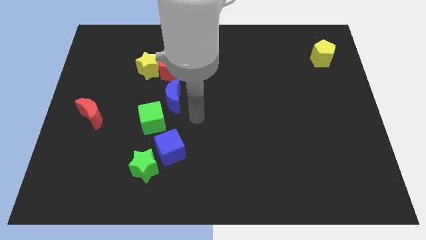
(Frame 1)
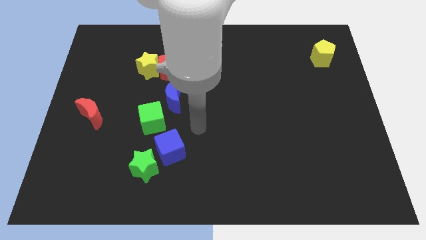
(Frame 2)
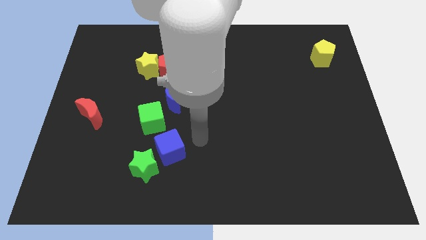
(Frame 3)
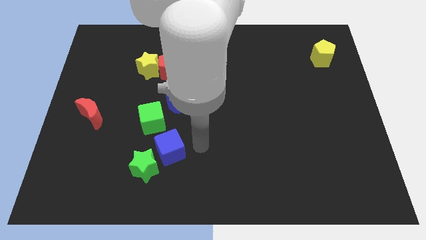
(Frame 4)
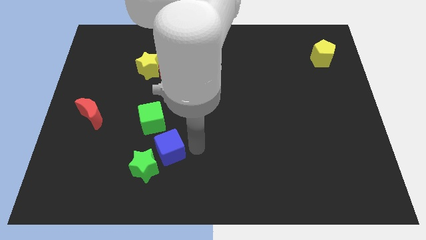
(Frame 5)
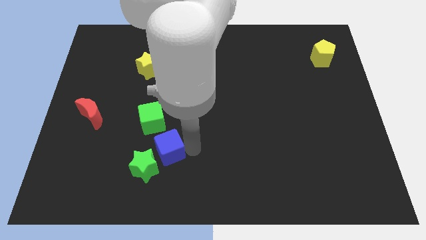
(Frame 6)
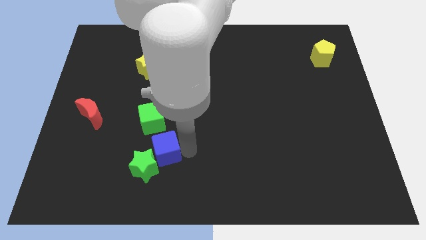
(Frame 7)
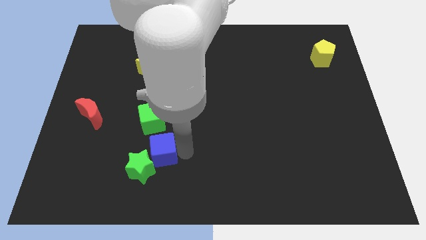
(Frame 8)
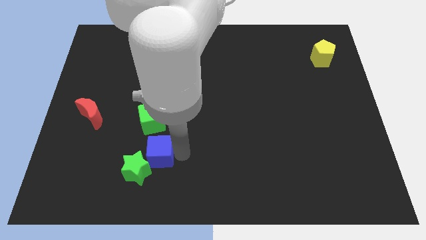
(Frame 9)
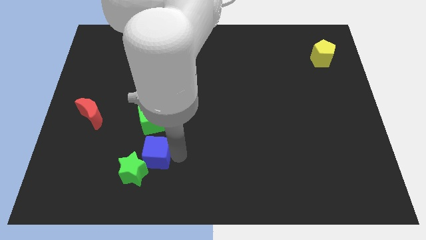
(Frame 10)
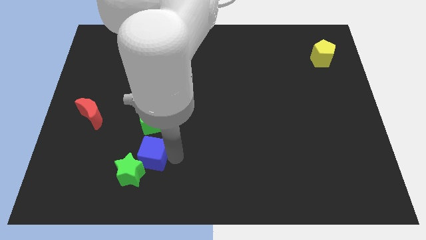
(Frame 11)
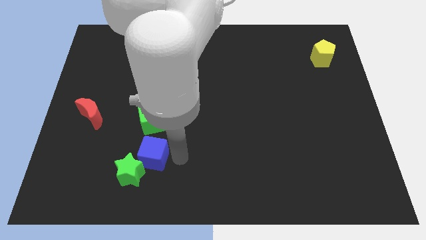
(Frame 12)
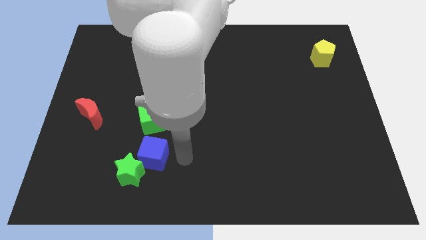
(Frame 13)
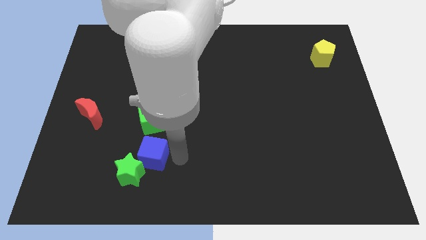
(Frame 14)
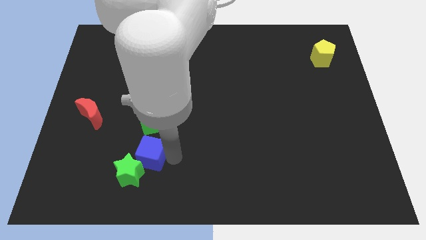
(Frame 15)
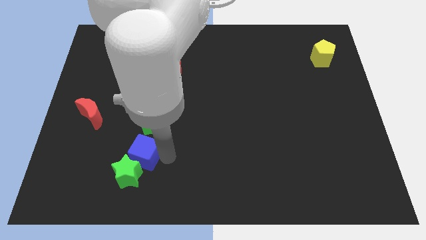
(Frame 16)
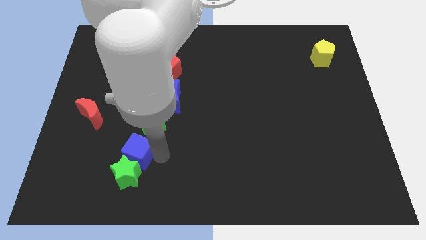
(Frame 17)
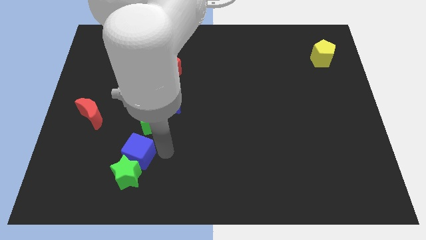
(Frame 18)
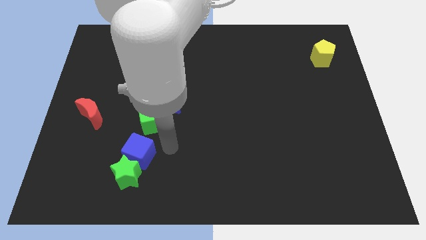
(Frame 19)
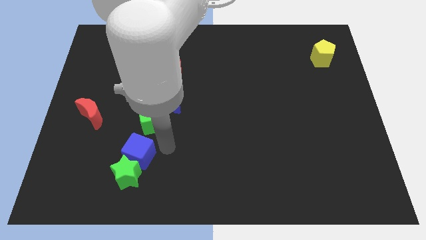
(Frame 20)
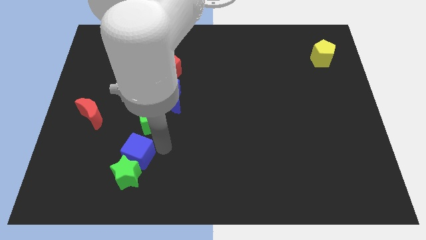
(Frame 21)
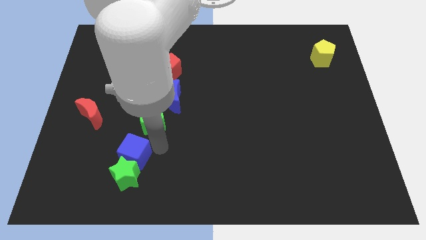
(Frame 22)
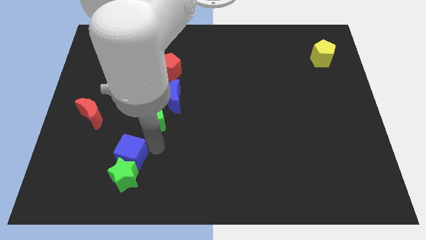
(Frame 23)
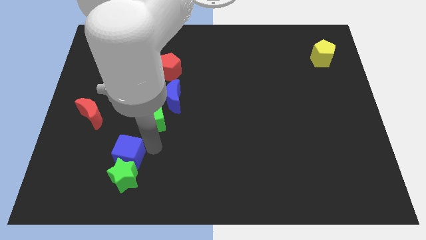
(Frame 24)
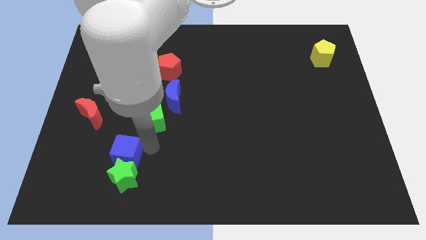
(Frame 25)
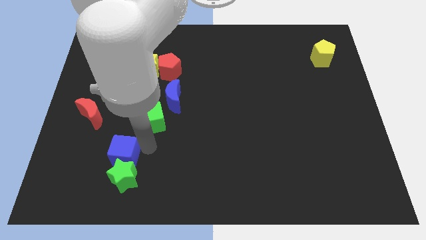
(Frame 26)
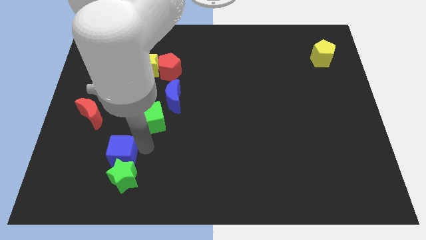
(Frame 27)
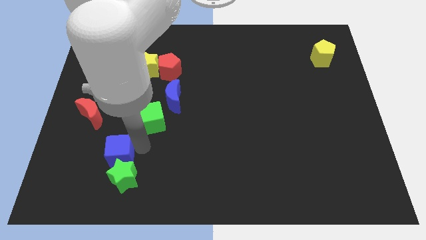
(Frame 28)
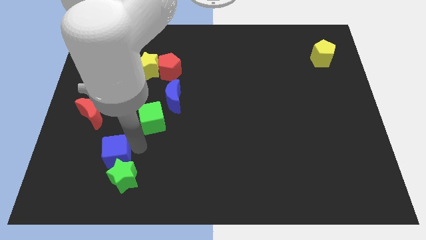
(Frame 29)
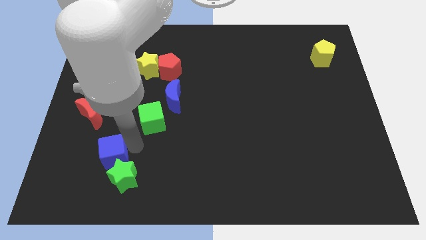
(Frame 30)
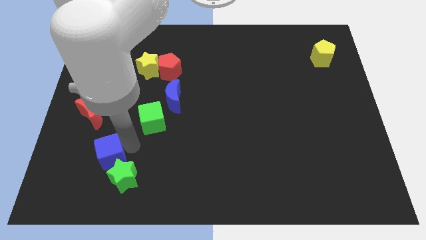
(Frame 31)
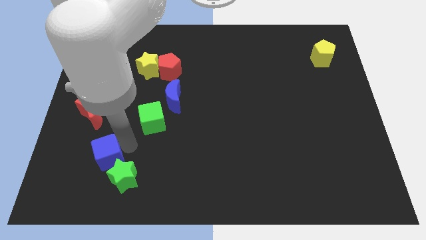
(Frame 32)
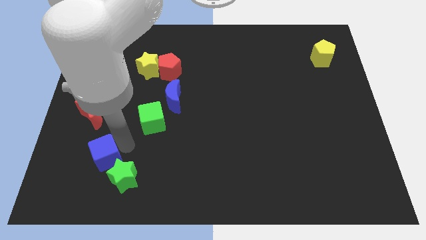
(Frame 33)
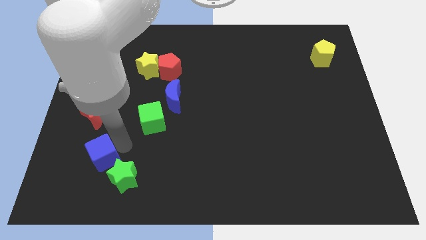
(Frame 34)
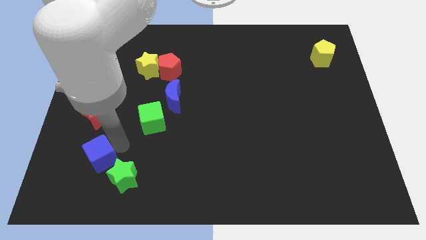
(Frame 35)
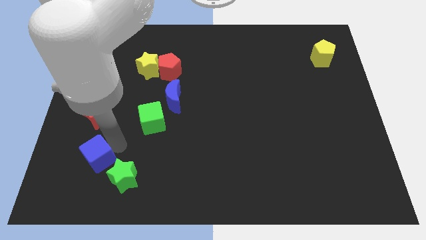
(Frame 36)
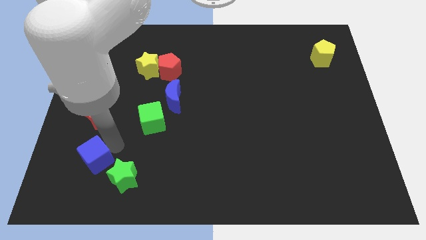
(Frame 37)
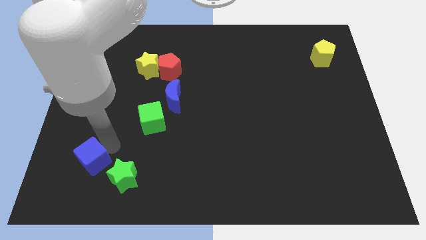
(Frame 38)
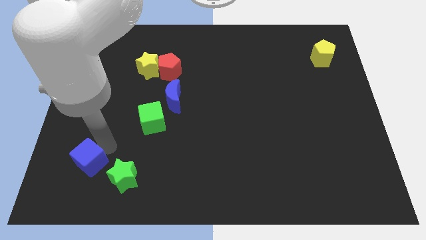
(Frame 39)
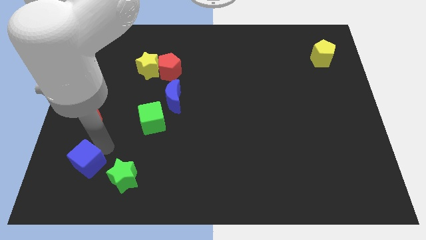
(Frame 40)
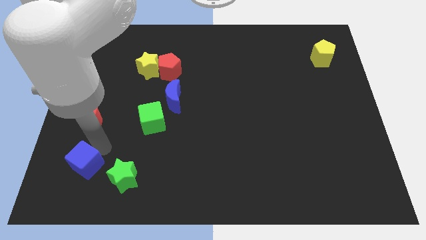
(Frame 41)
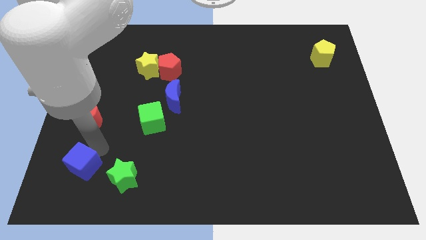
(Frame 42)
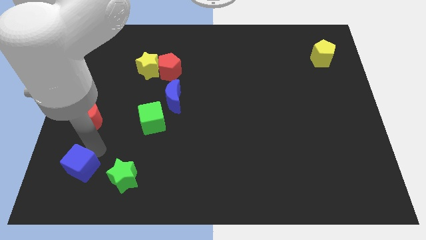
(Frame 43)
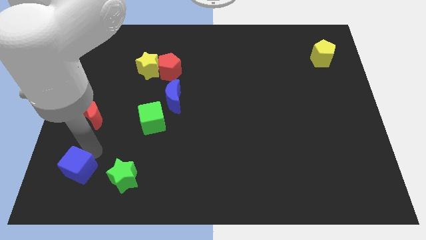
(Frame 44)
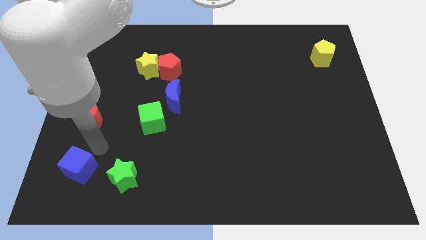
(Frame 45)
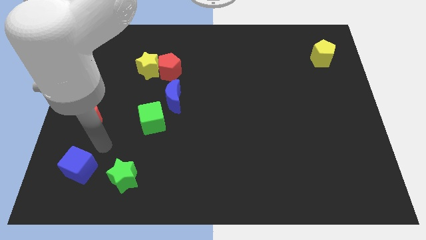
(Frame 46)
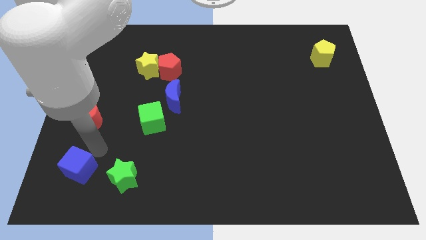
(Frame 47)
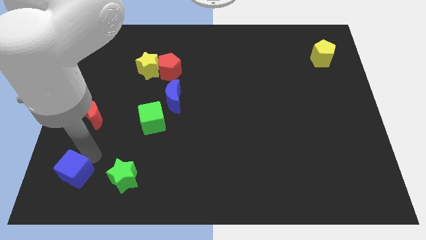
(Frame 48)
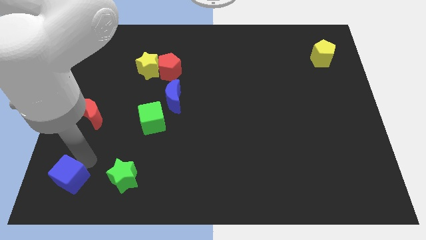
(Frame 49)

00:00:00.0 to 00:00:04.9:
push the blue cube to the bottom left corner

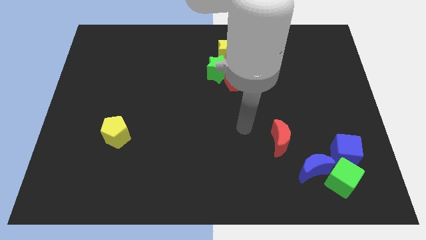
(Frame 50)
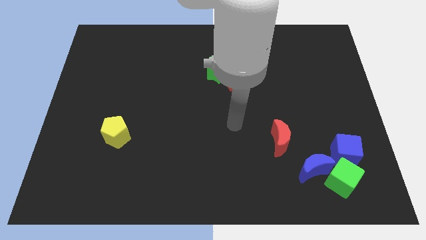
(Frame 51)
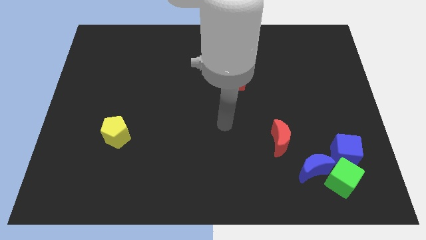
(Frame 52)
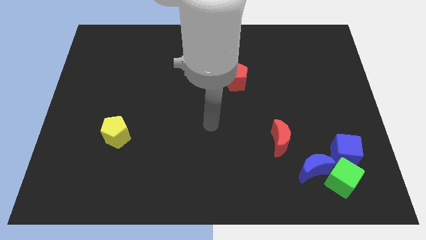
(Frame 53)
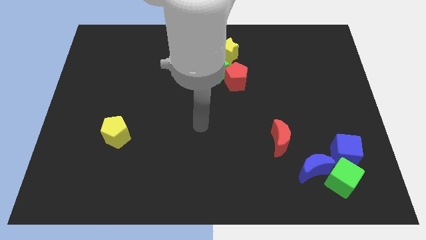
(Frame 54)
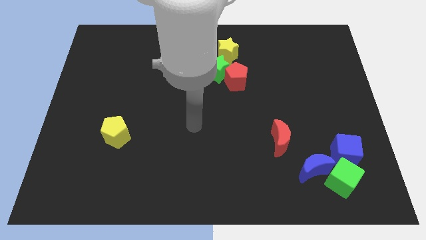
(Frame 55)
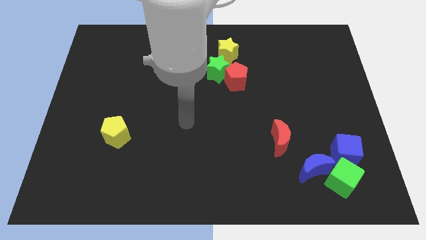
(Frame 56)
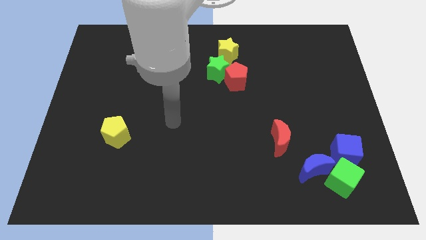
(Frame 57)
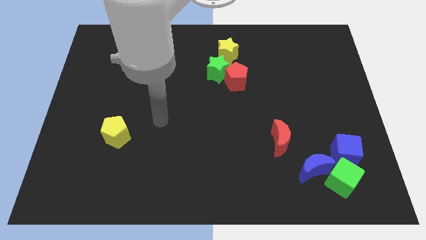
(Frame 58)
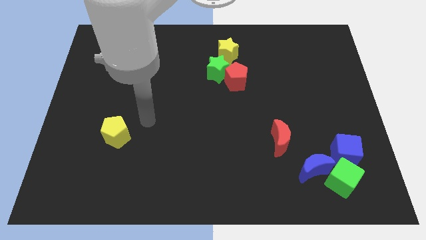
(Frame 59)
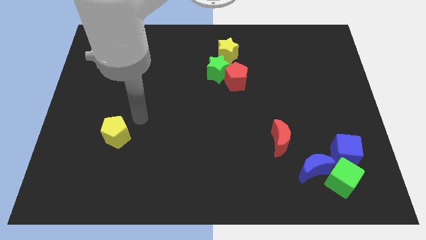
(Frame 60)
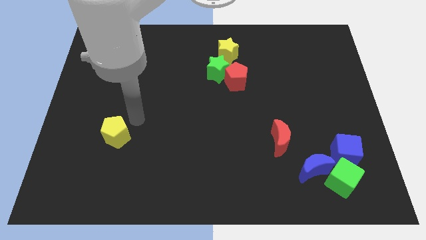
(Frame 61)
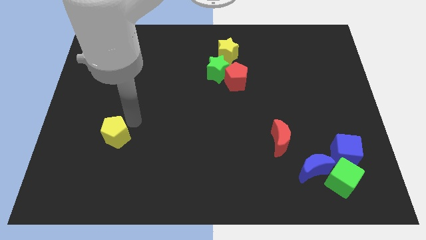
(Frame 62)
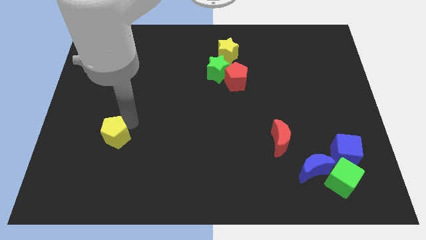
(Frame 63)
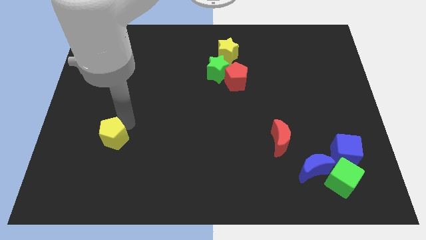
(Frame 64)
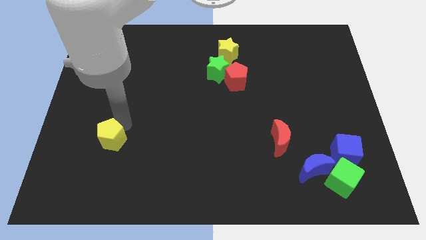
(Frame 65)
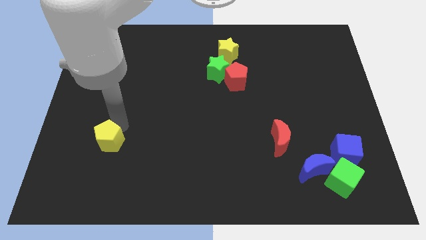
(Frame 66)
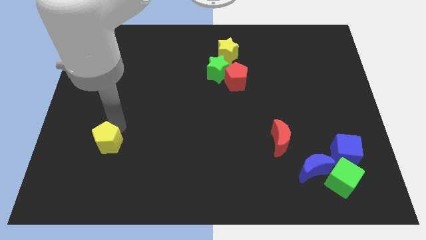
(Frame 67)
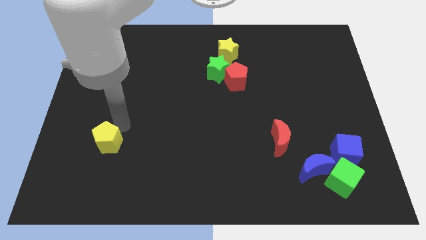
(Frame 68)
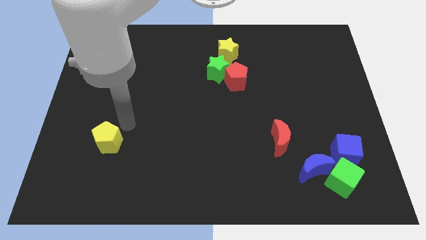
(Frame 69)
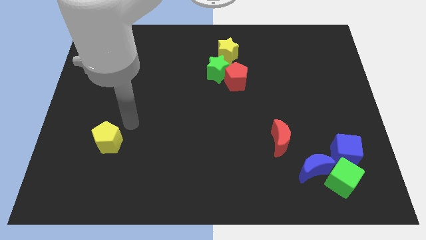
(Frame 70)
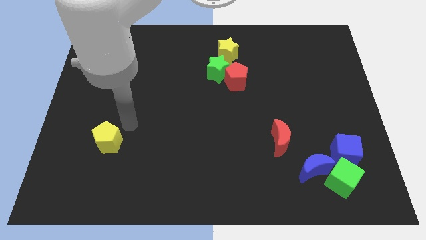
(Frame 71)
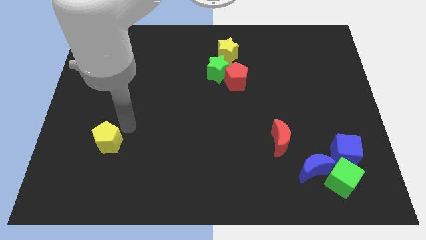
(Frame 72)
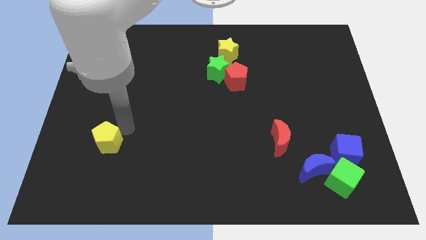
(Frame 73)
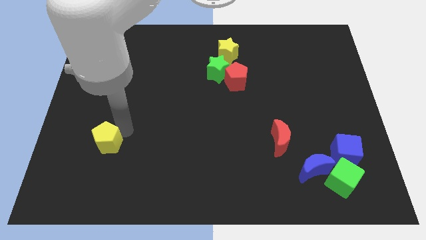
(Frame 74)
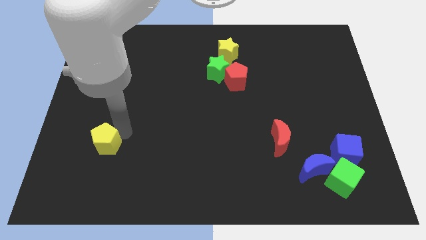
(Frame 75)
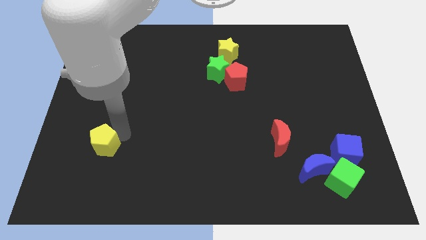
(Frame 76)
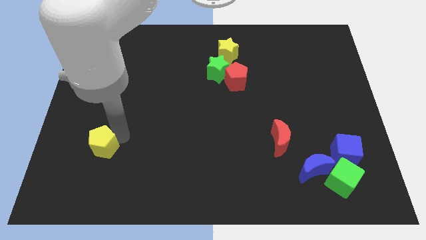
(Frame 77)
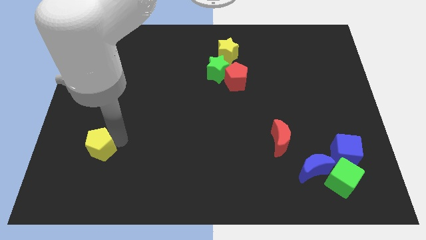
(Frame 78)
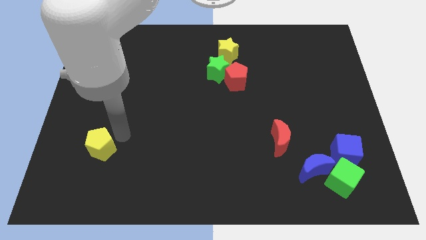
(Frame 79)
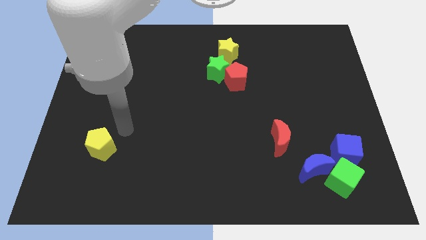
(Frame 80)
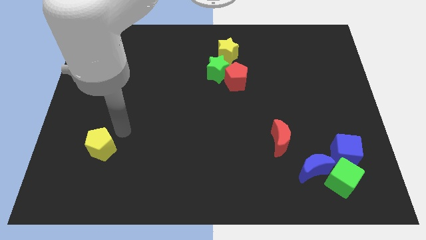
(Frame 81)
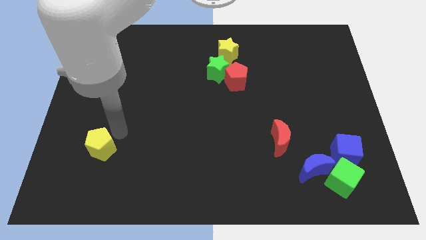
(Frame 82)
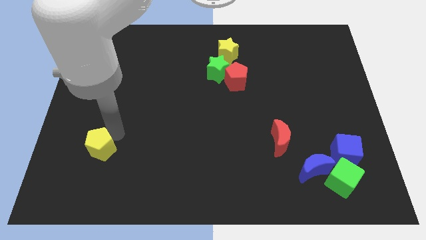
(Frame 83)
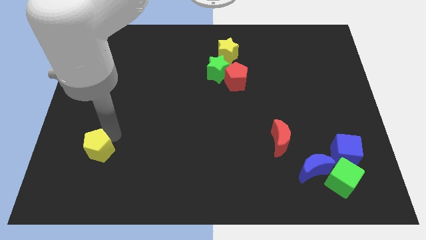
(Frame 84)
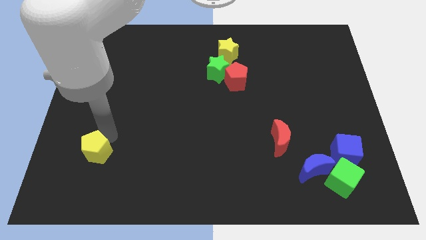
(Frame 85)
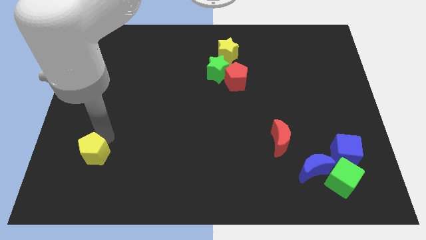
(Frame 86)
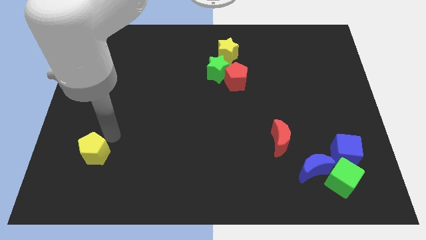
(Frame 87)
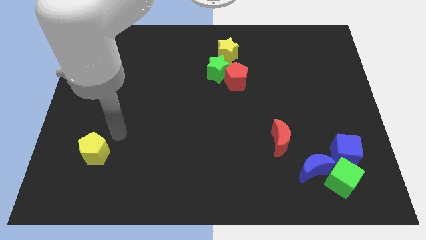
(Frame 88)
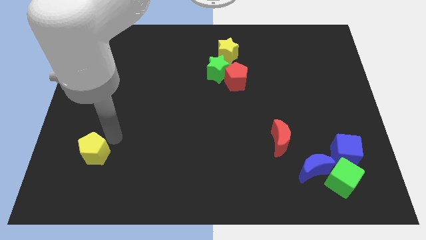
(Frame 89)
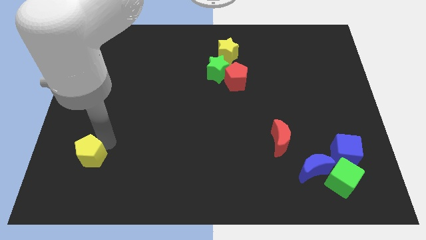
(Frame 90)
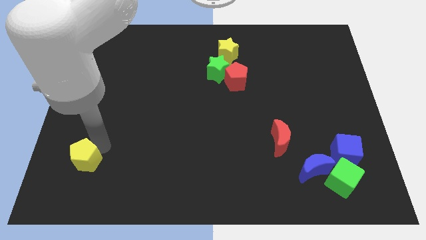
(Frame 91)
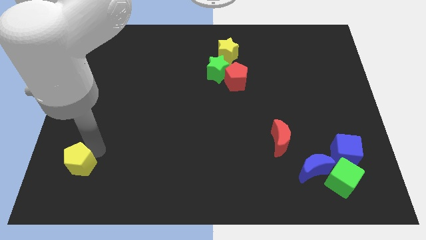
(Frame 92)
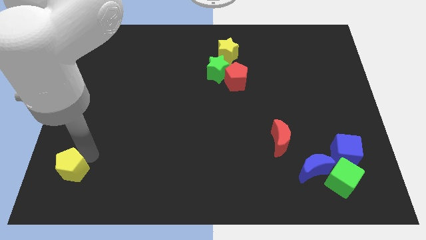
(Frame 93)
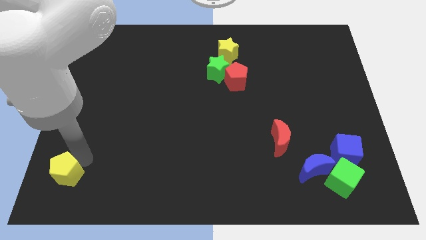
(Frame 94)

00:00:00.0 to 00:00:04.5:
move the yellow pentagon to the bottom left
